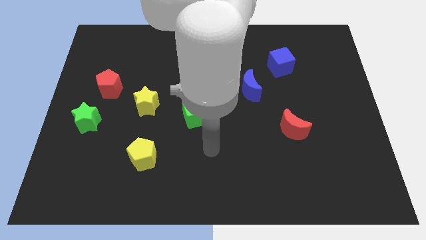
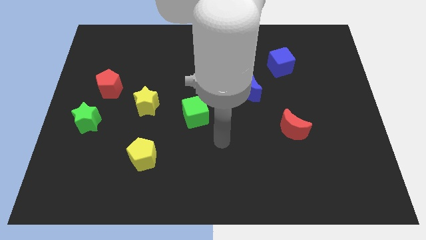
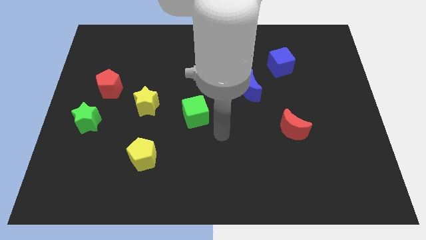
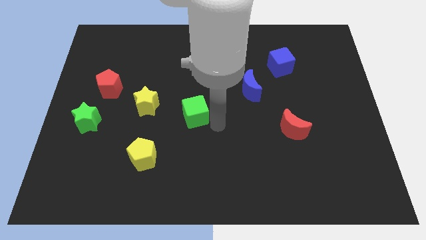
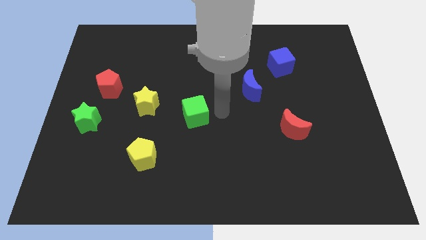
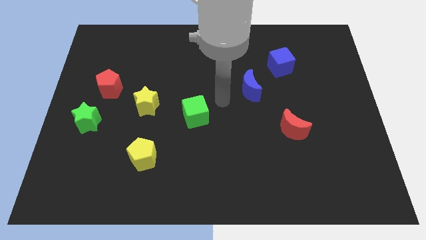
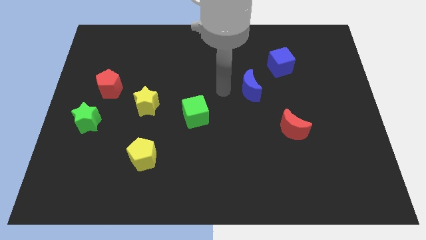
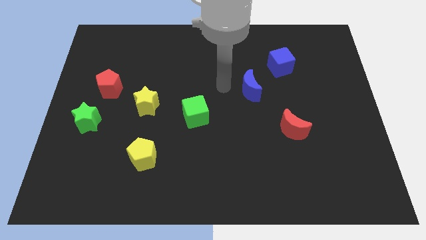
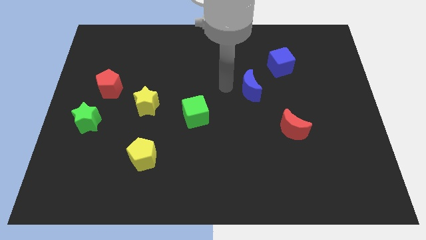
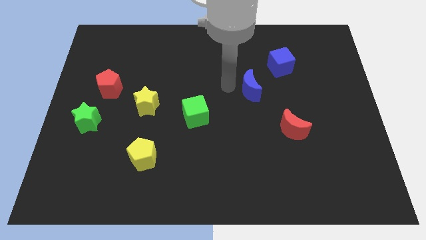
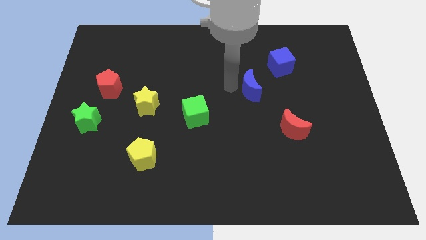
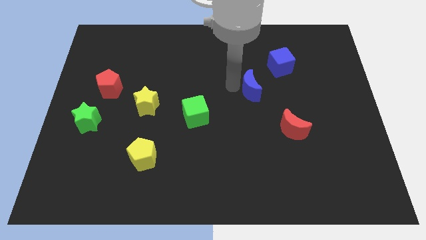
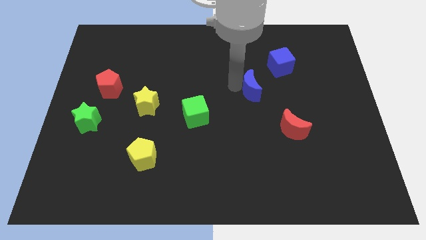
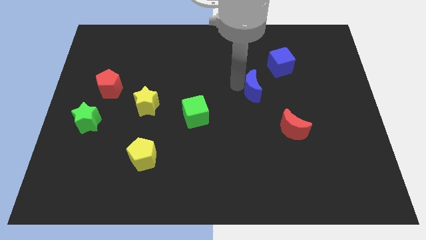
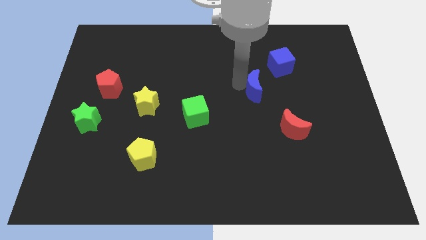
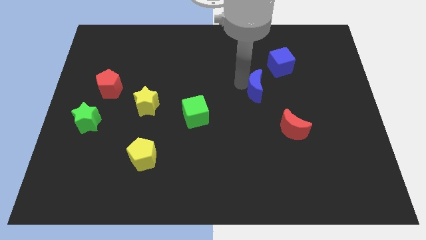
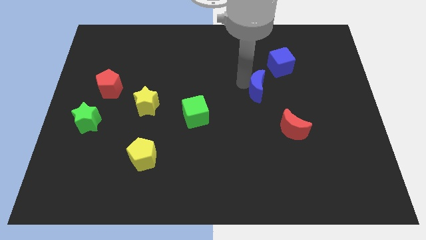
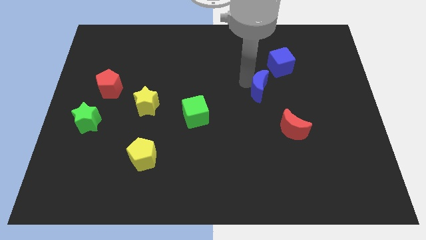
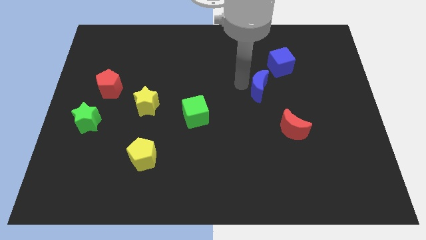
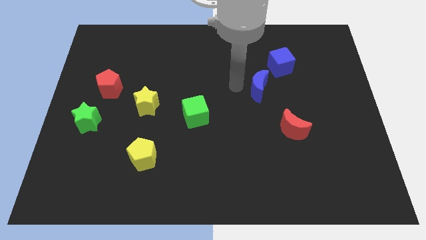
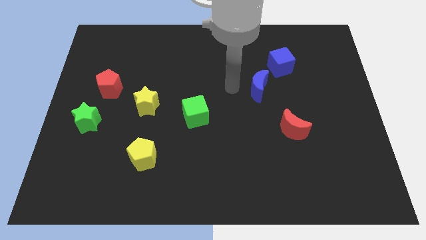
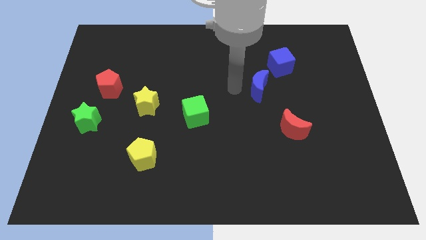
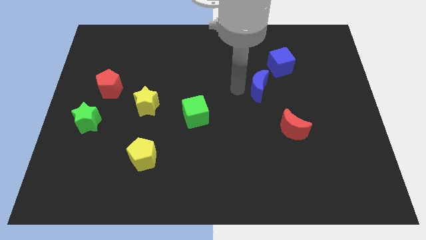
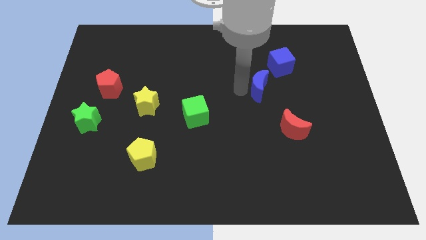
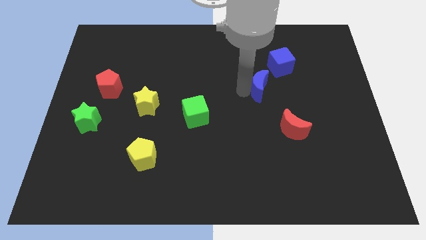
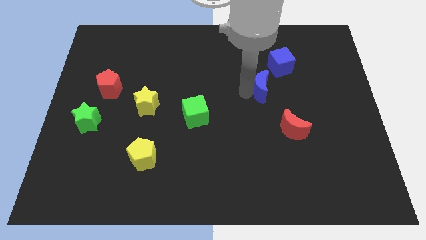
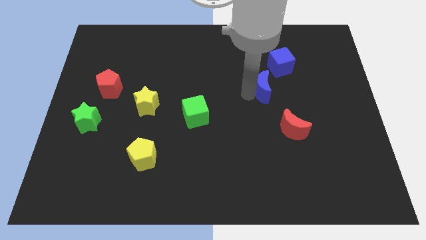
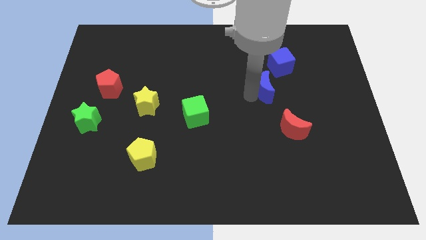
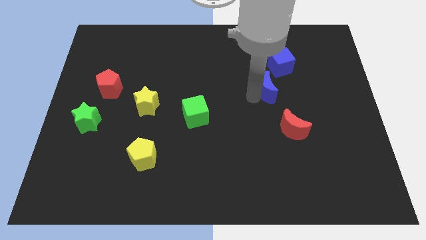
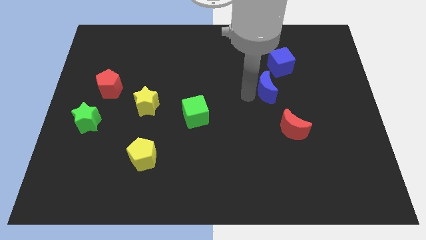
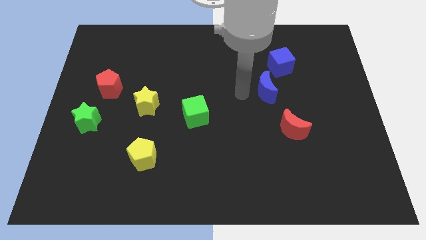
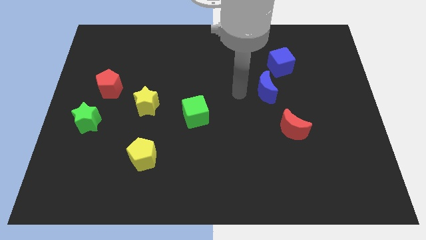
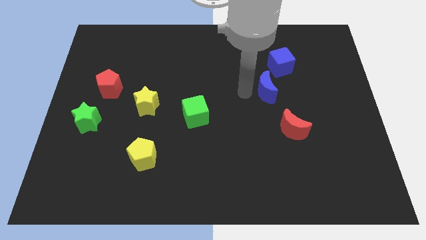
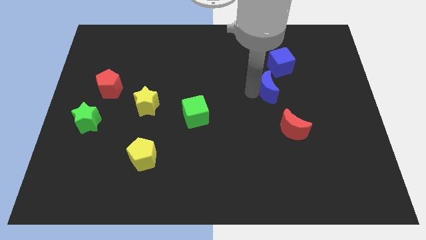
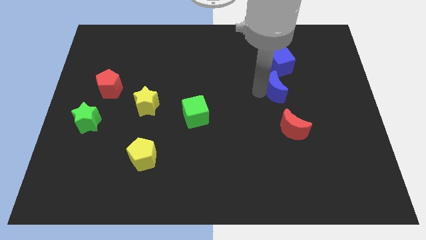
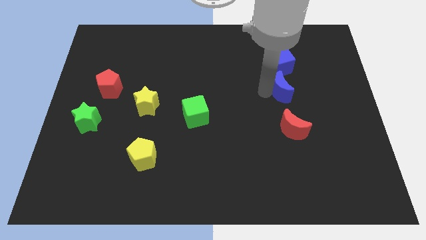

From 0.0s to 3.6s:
slide the blue moon a little bit to the right

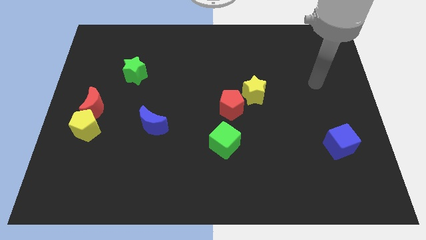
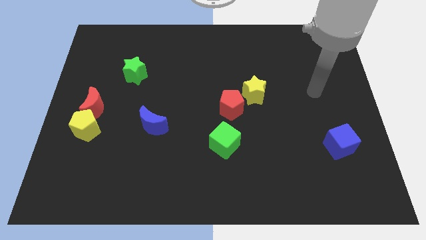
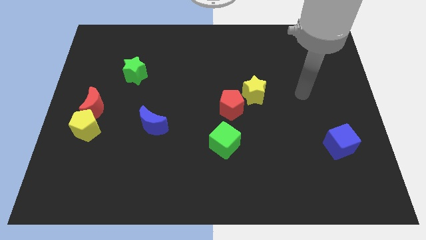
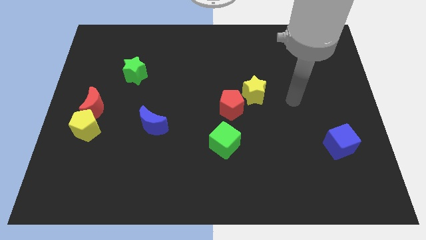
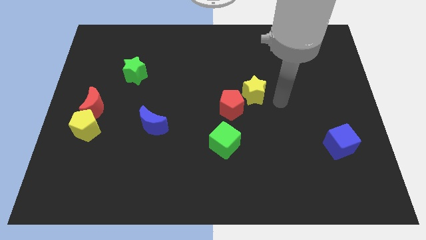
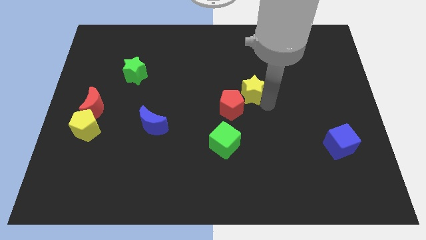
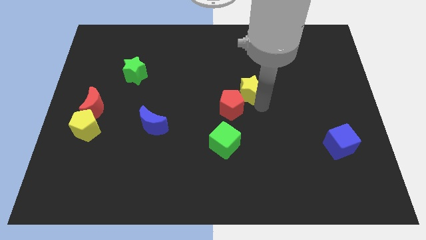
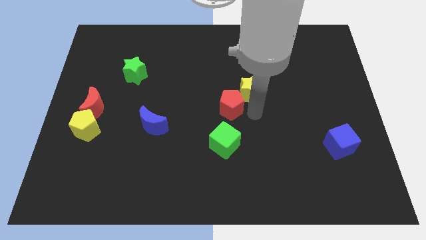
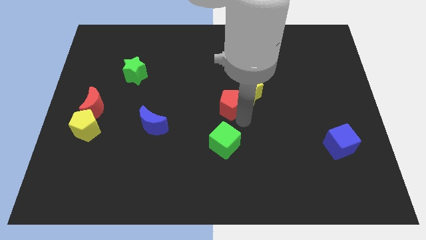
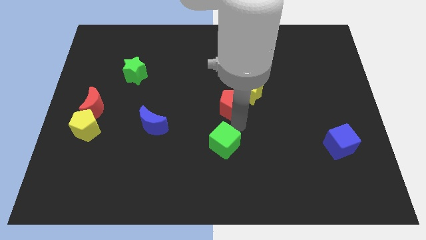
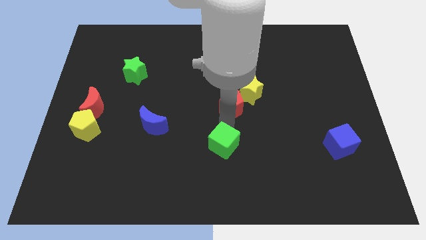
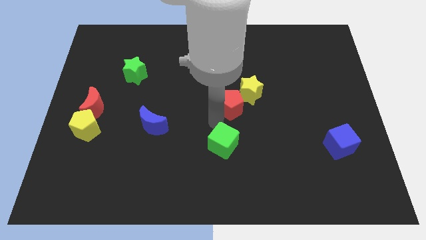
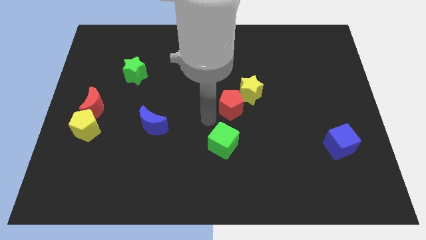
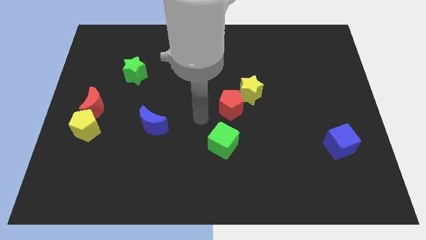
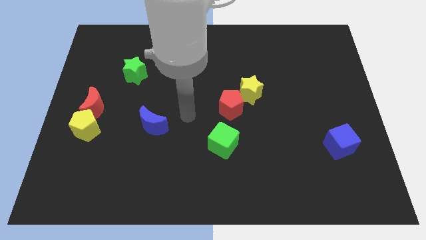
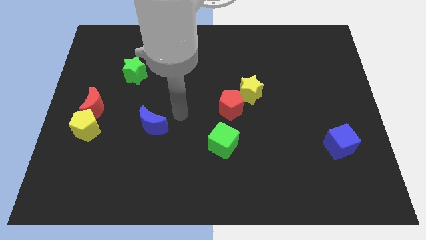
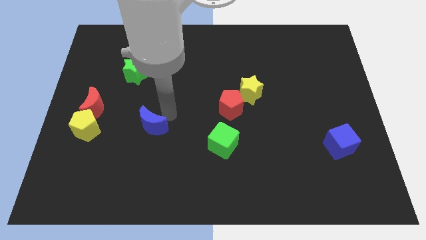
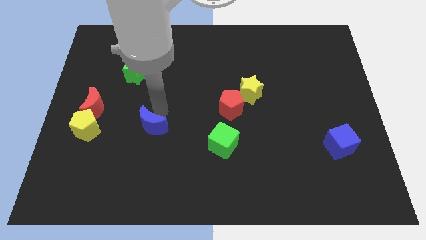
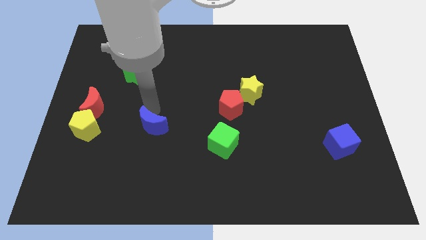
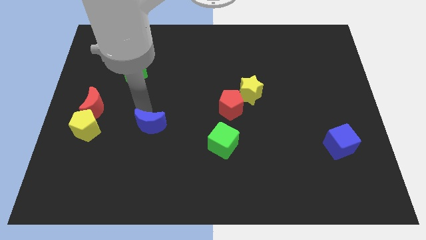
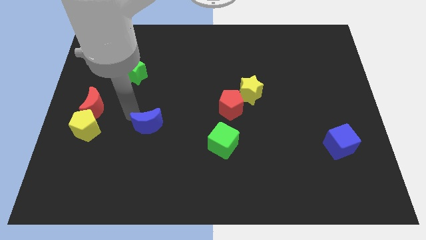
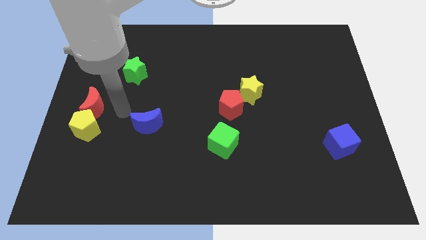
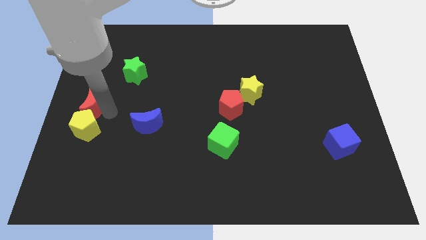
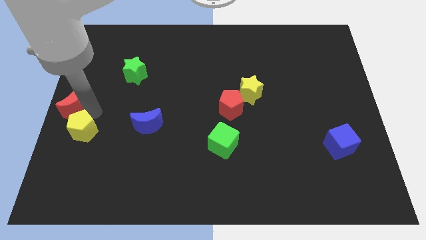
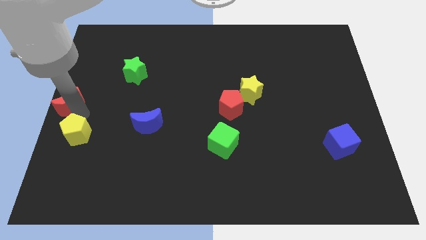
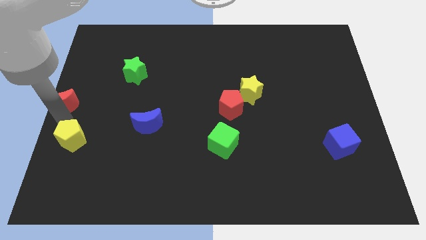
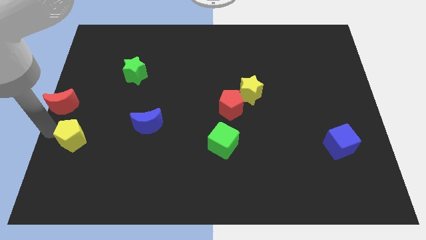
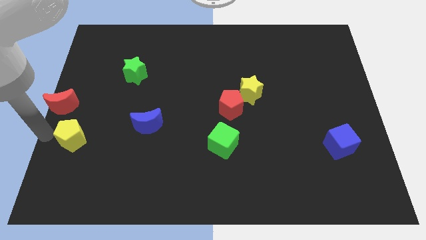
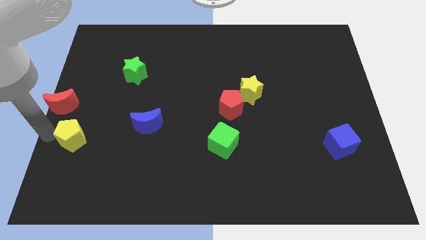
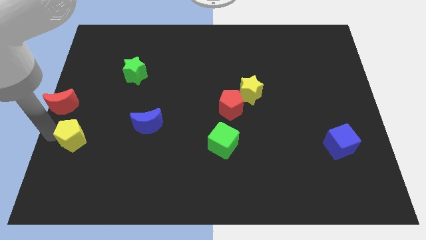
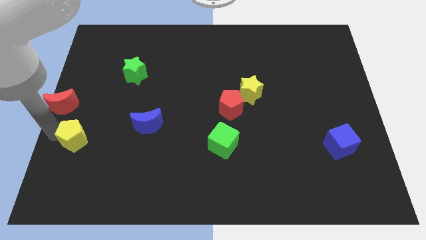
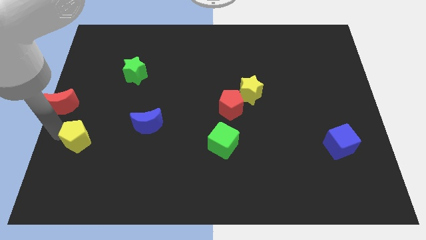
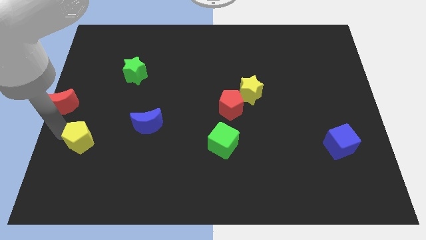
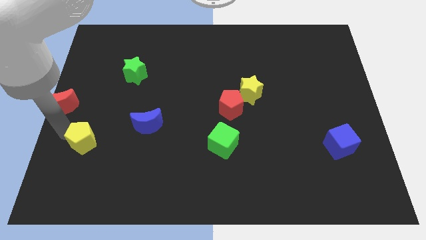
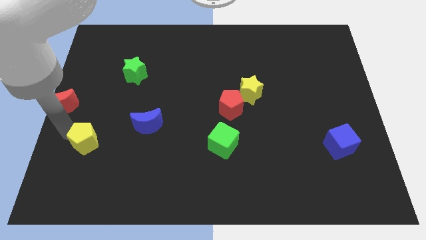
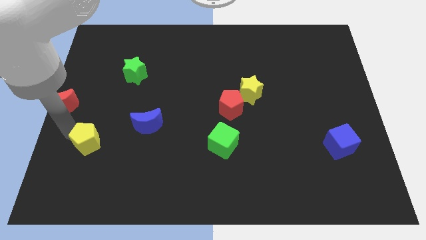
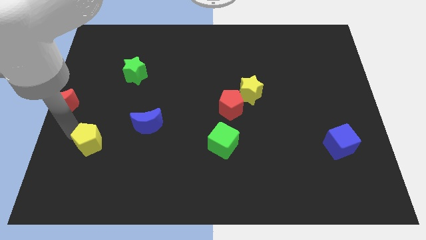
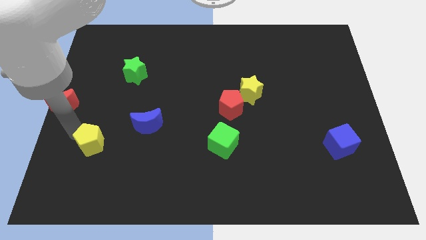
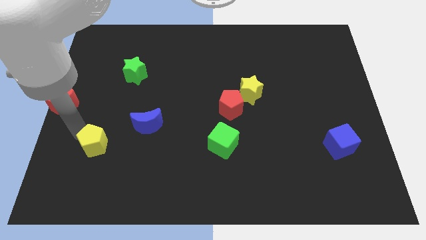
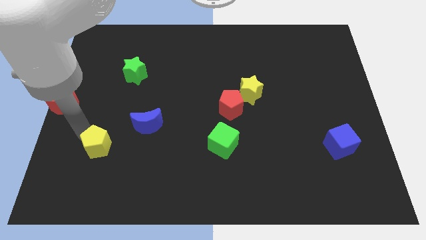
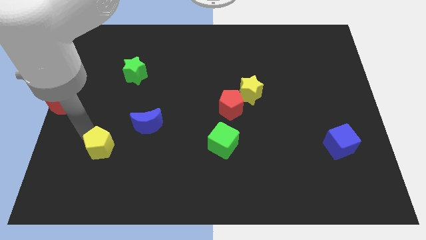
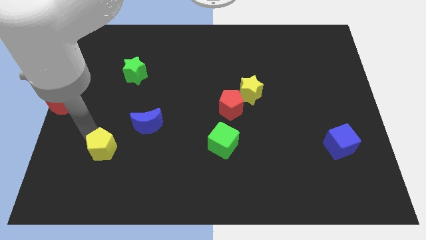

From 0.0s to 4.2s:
move the yellow pentagon diagonally down and to the right a little

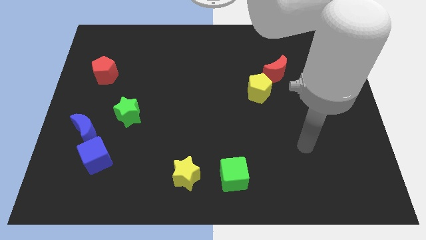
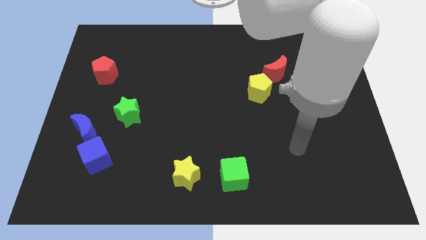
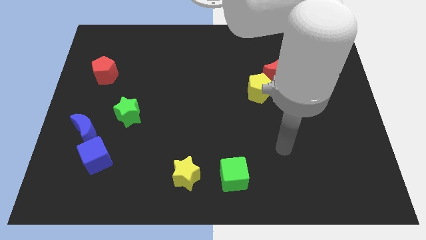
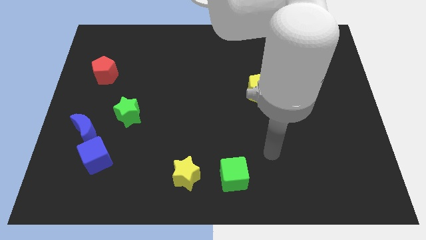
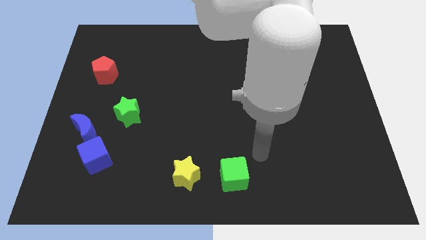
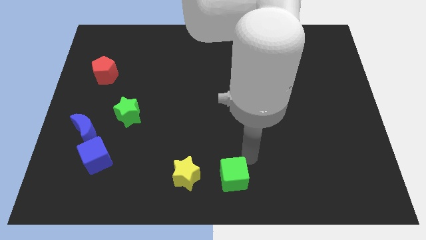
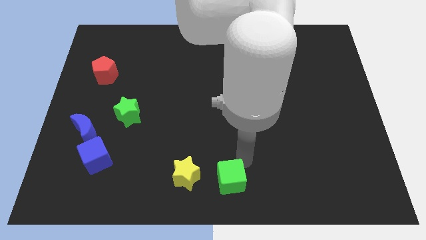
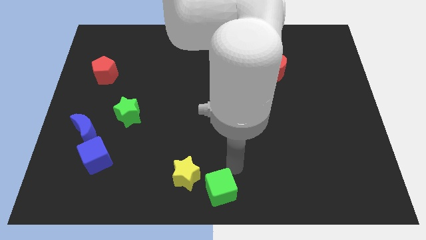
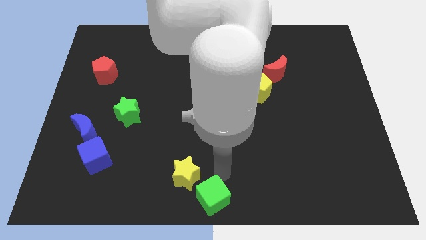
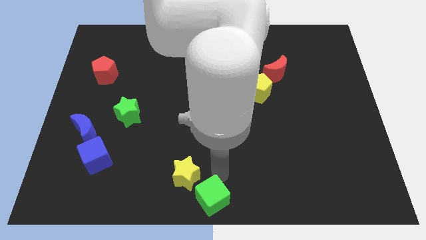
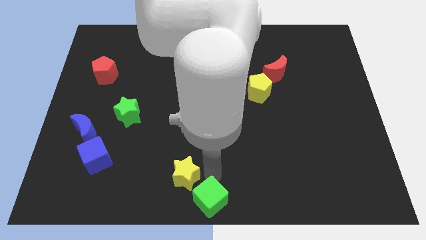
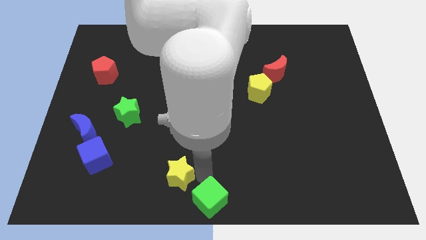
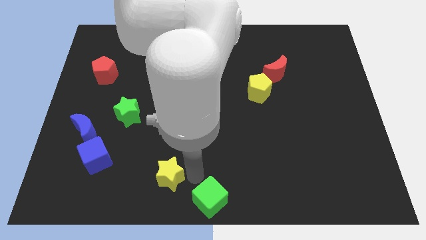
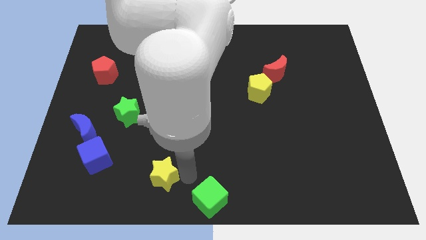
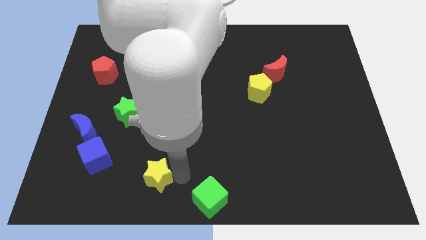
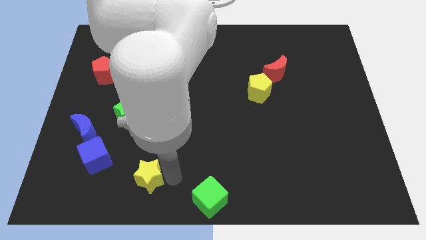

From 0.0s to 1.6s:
push the yellow star to the left slightly
